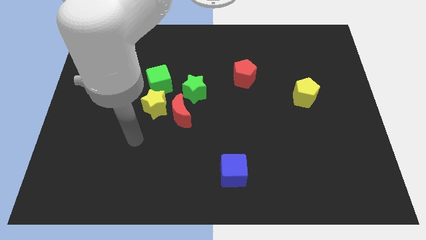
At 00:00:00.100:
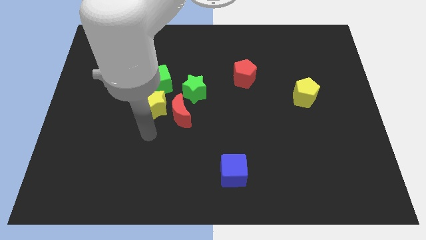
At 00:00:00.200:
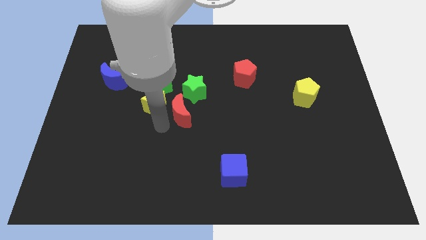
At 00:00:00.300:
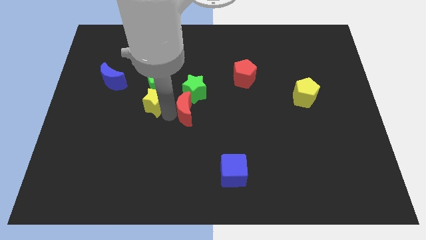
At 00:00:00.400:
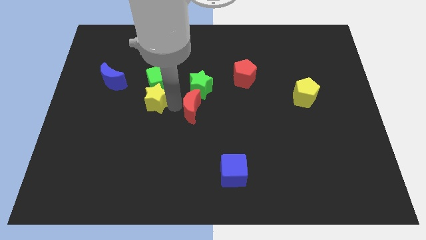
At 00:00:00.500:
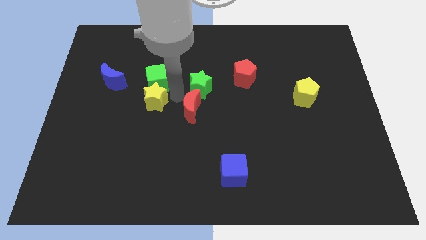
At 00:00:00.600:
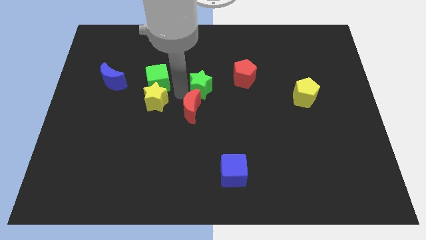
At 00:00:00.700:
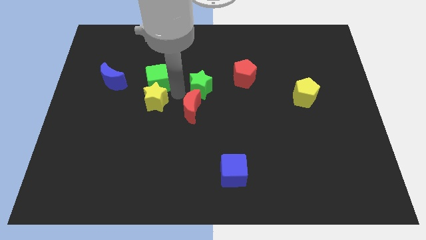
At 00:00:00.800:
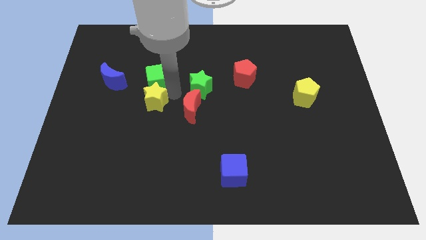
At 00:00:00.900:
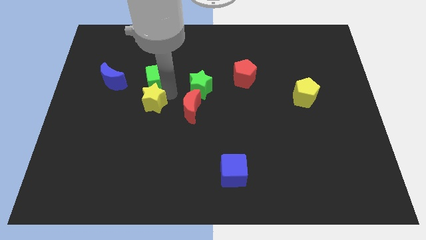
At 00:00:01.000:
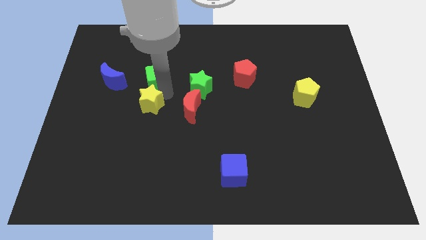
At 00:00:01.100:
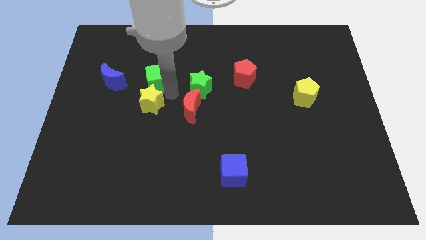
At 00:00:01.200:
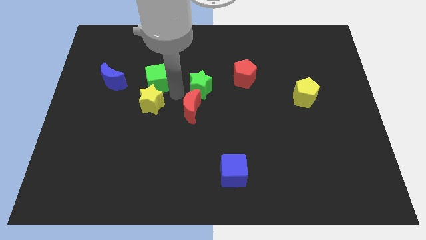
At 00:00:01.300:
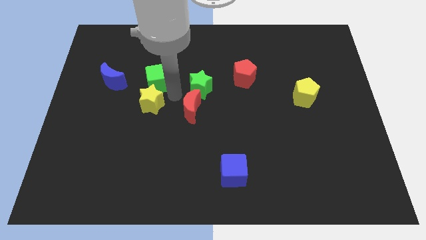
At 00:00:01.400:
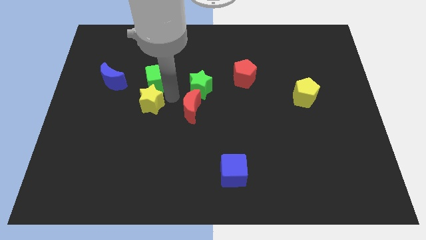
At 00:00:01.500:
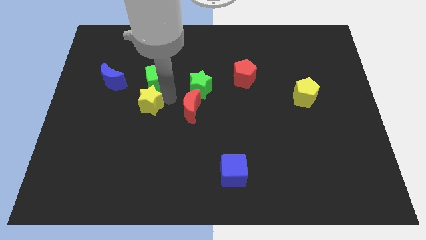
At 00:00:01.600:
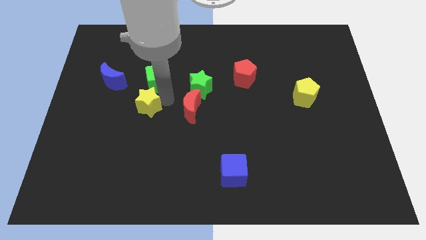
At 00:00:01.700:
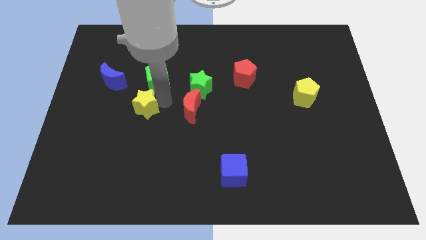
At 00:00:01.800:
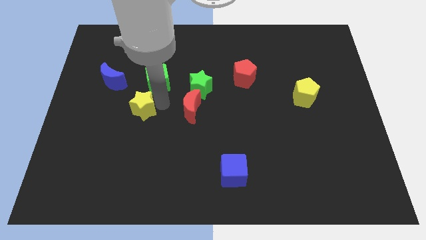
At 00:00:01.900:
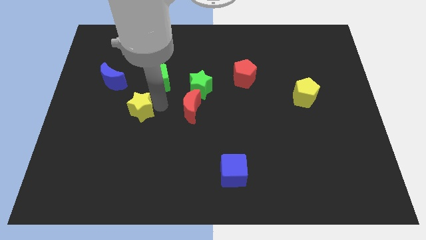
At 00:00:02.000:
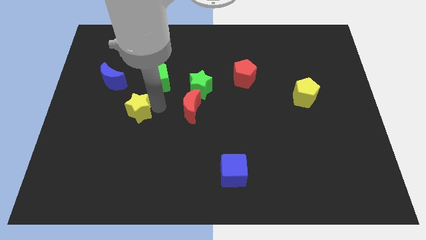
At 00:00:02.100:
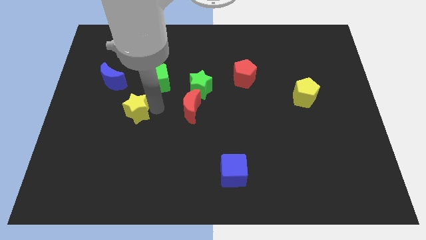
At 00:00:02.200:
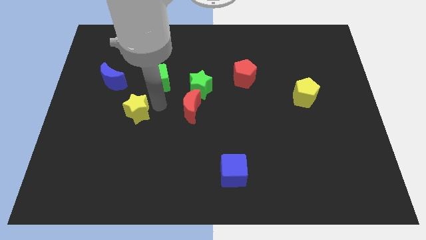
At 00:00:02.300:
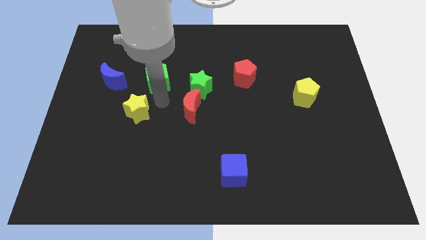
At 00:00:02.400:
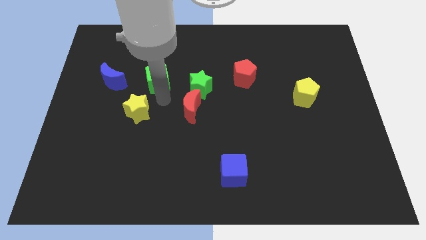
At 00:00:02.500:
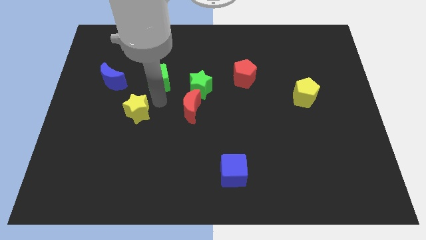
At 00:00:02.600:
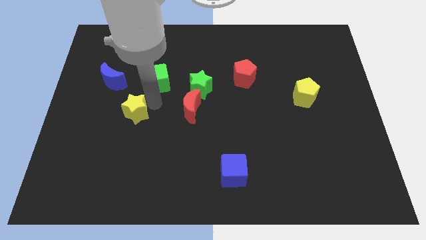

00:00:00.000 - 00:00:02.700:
pull the yellow star apart from the red moon and green cube

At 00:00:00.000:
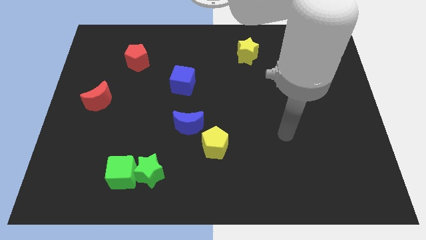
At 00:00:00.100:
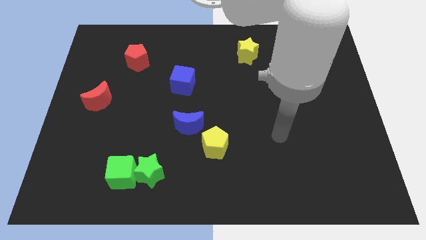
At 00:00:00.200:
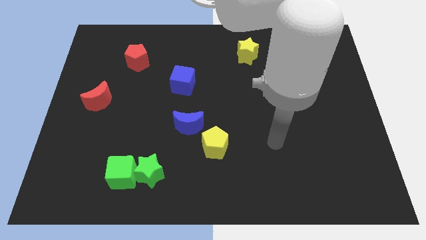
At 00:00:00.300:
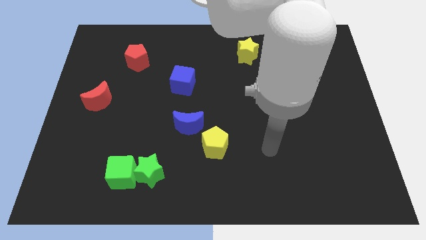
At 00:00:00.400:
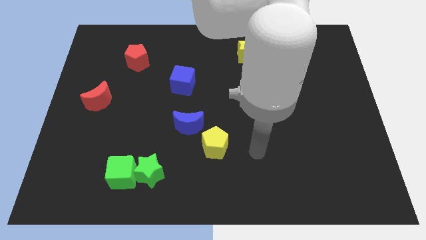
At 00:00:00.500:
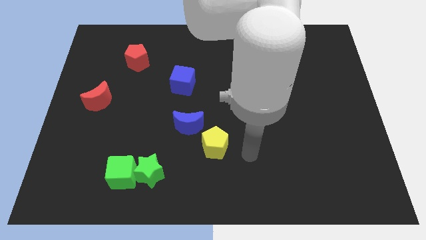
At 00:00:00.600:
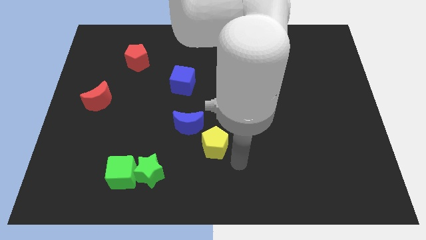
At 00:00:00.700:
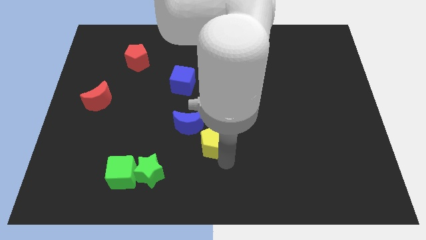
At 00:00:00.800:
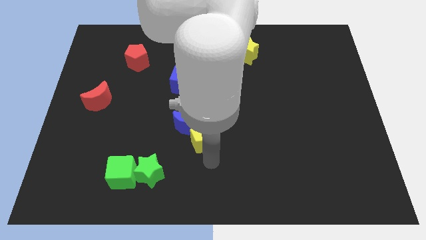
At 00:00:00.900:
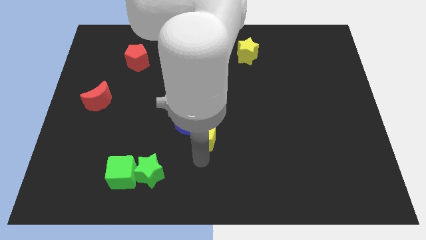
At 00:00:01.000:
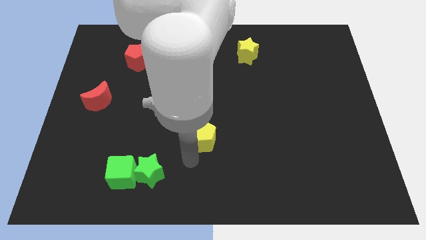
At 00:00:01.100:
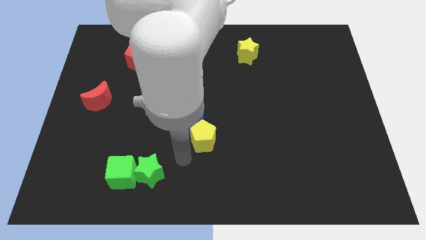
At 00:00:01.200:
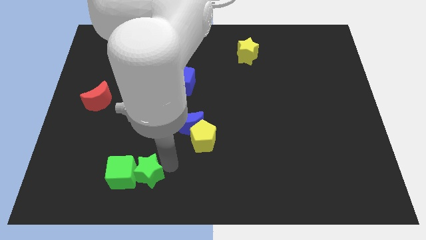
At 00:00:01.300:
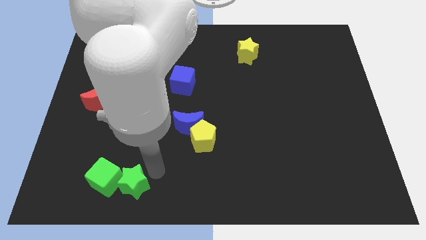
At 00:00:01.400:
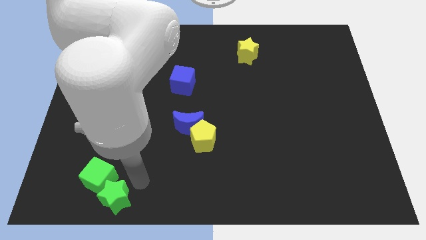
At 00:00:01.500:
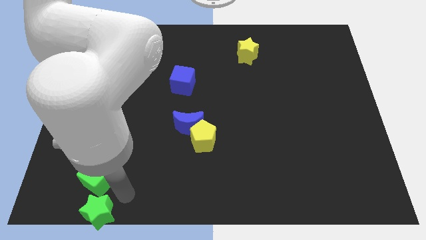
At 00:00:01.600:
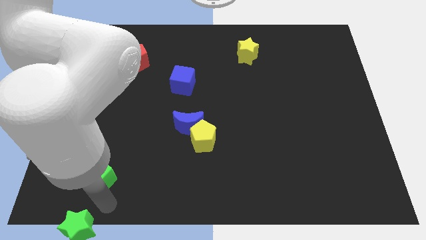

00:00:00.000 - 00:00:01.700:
move the green cube away from the green star

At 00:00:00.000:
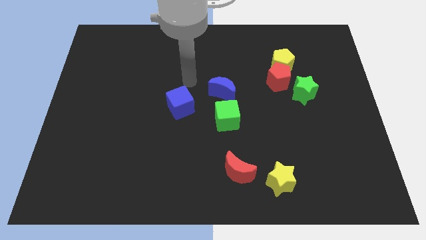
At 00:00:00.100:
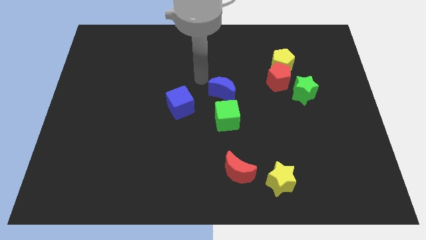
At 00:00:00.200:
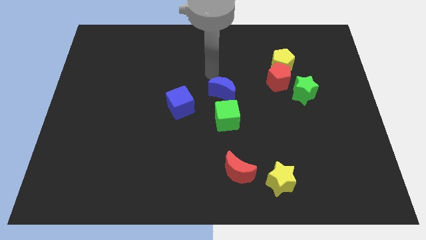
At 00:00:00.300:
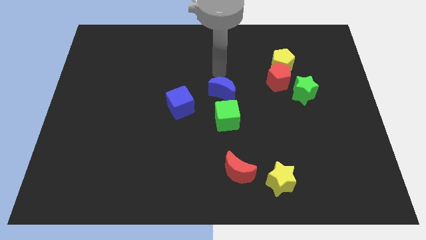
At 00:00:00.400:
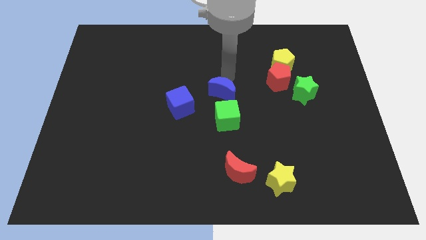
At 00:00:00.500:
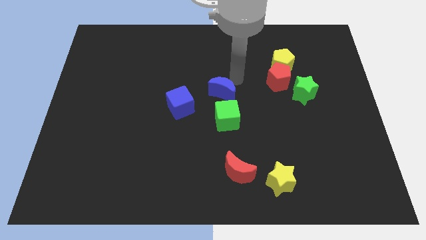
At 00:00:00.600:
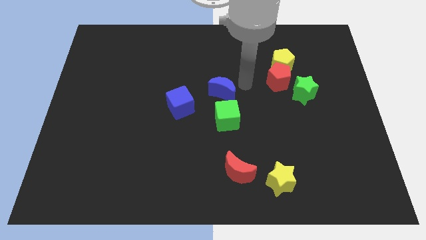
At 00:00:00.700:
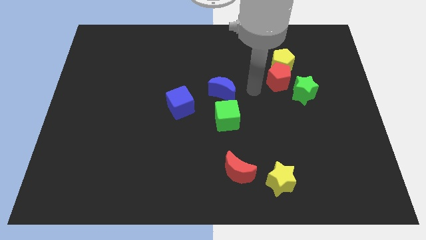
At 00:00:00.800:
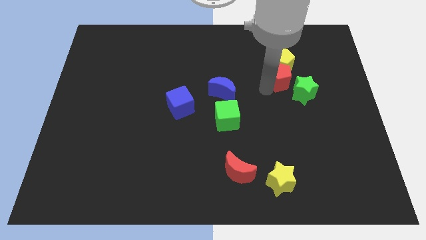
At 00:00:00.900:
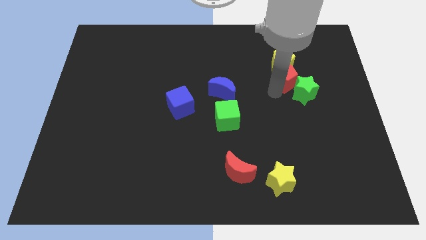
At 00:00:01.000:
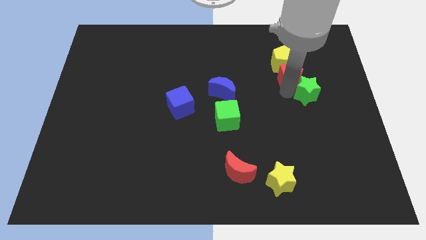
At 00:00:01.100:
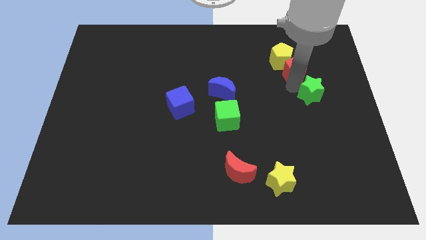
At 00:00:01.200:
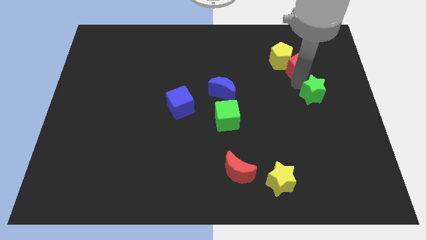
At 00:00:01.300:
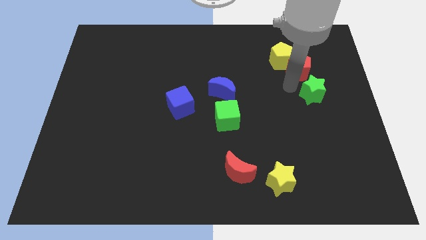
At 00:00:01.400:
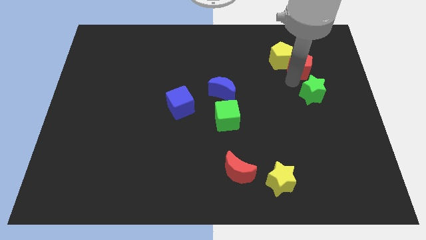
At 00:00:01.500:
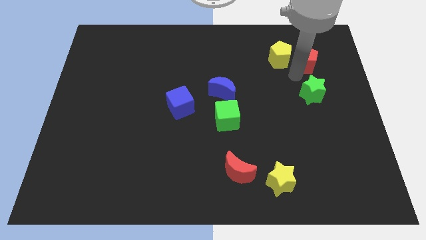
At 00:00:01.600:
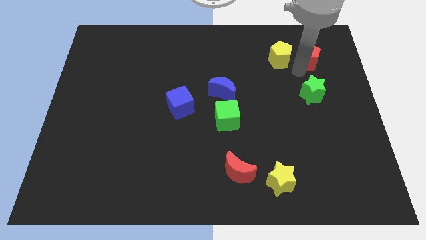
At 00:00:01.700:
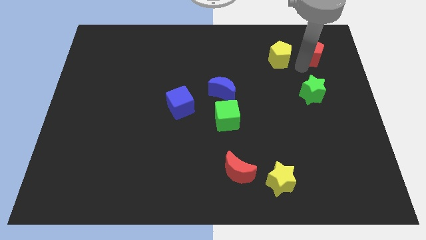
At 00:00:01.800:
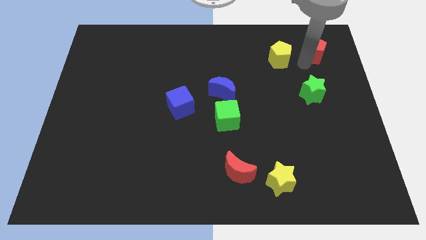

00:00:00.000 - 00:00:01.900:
move the red pentagon away from the yellow pentagon and green star

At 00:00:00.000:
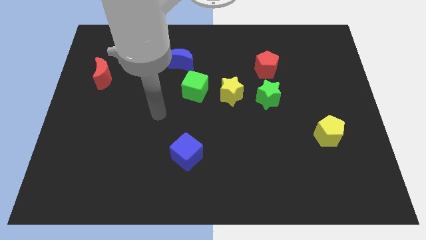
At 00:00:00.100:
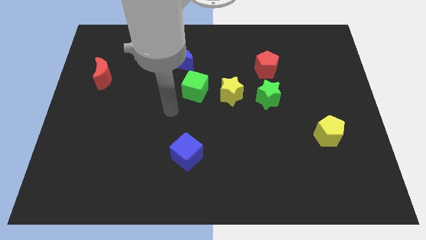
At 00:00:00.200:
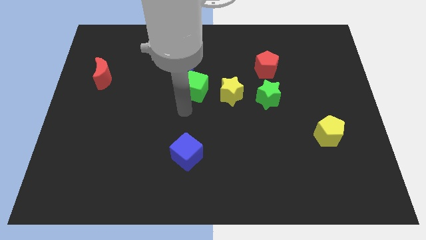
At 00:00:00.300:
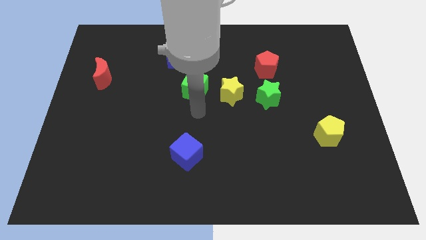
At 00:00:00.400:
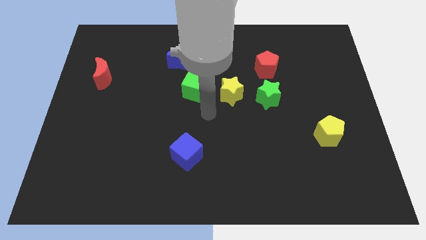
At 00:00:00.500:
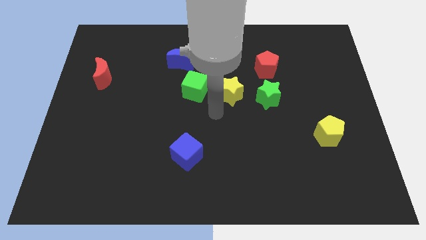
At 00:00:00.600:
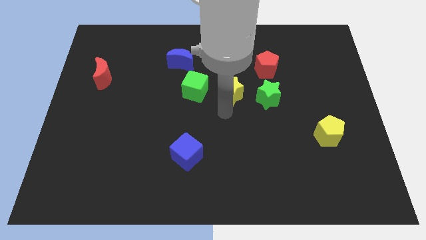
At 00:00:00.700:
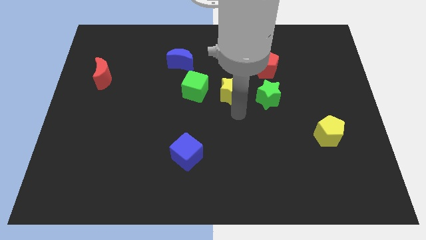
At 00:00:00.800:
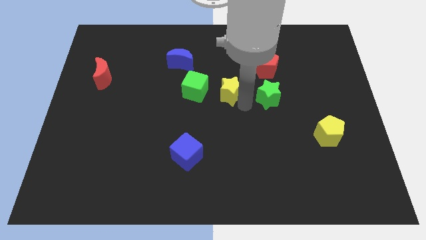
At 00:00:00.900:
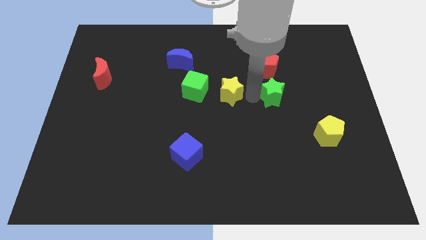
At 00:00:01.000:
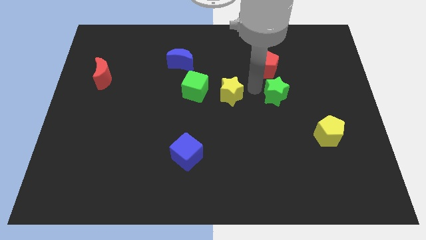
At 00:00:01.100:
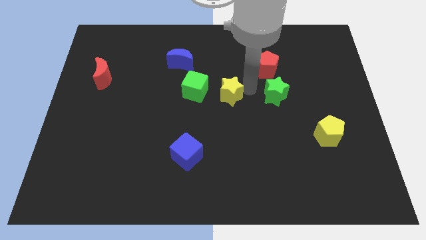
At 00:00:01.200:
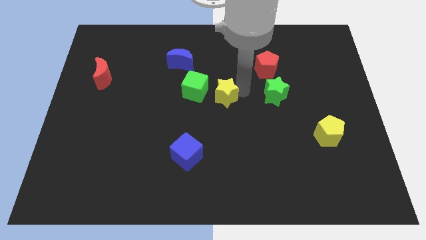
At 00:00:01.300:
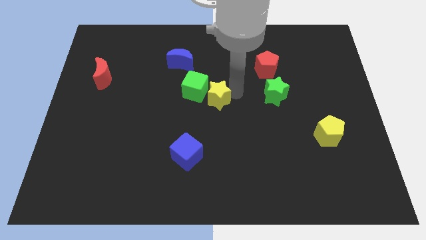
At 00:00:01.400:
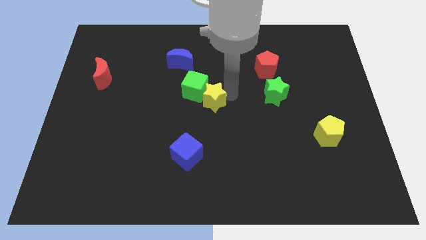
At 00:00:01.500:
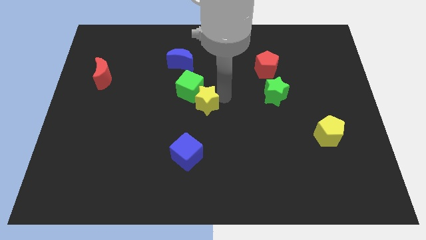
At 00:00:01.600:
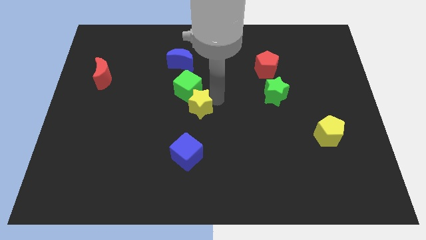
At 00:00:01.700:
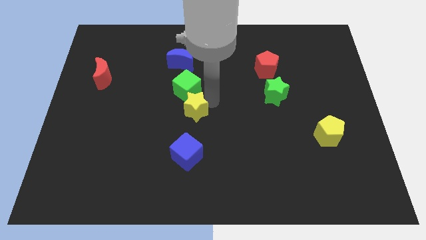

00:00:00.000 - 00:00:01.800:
pull the yellow star apart from the green cube and green star

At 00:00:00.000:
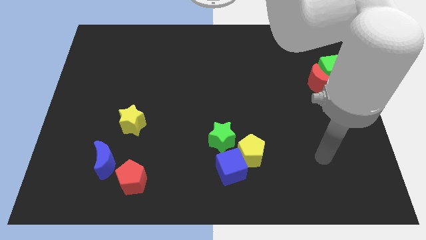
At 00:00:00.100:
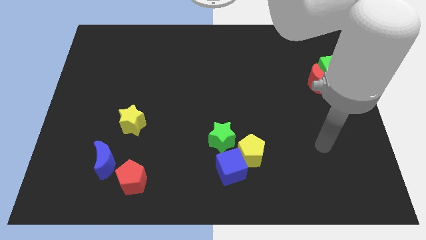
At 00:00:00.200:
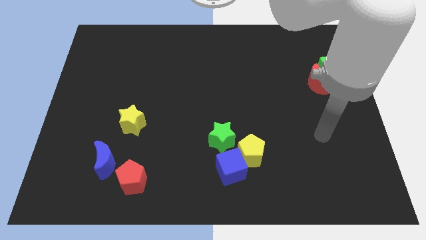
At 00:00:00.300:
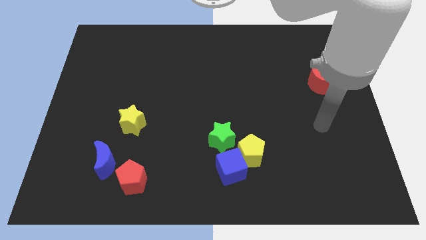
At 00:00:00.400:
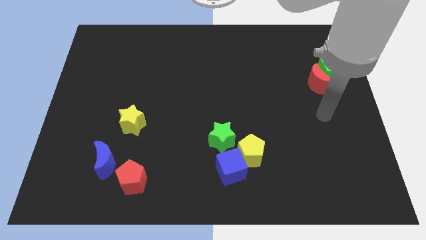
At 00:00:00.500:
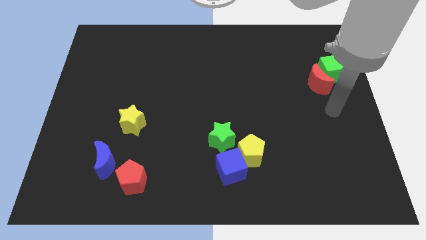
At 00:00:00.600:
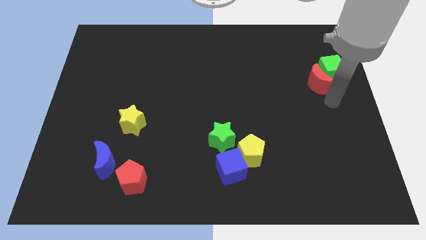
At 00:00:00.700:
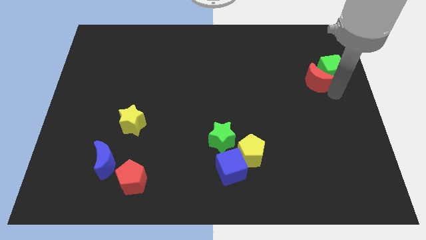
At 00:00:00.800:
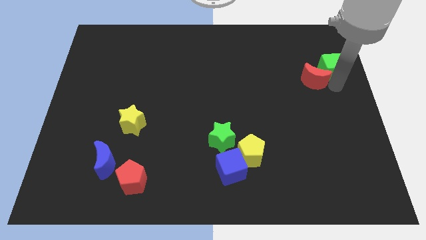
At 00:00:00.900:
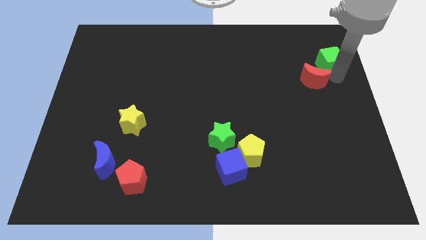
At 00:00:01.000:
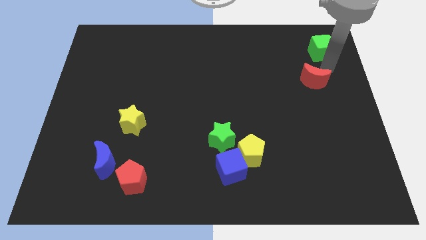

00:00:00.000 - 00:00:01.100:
pull the red moon apart from the green cube
